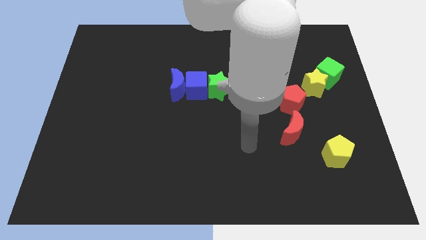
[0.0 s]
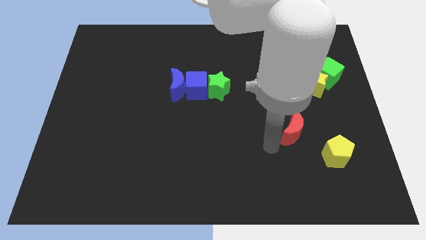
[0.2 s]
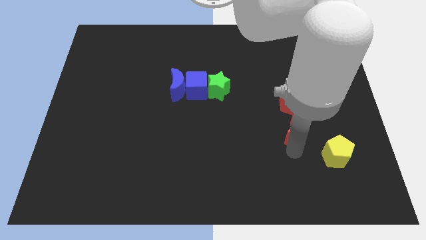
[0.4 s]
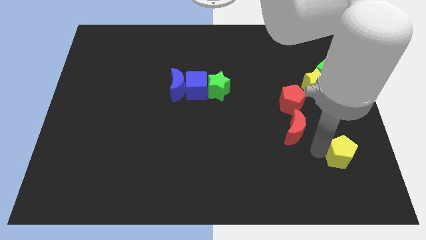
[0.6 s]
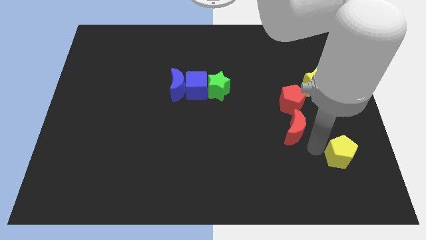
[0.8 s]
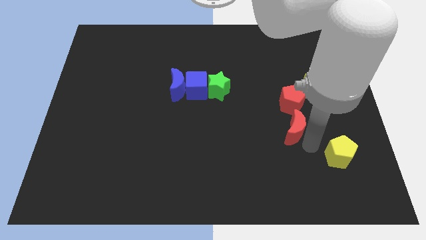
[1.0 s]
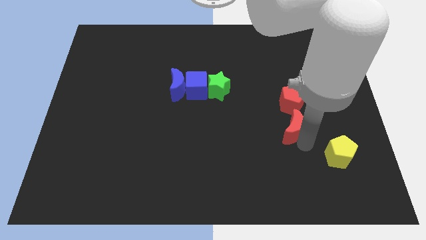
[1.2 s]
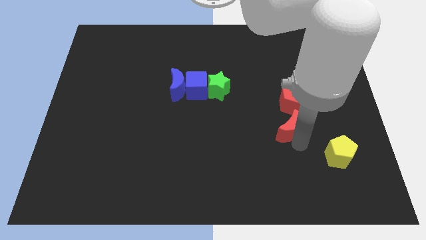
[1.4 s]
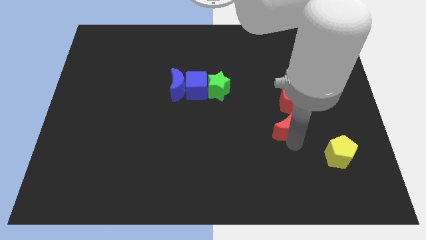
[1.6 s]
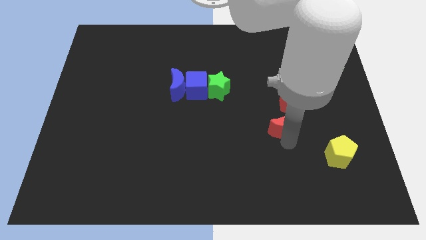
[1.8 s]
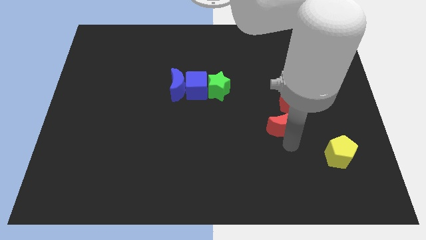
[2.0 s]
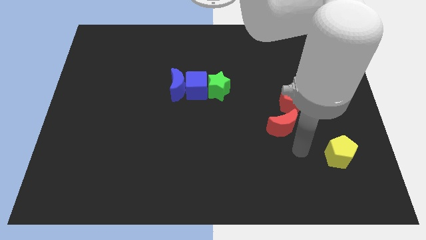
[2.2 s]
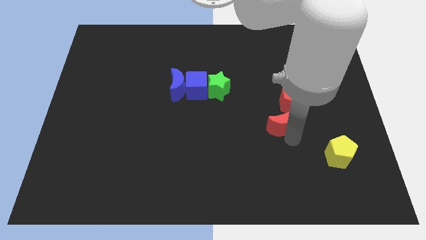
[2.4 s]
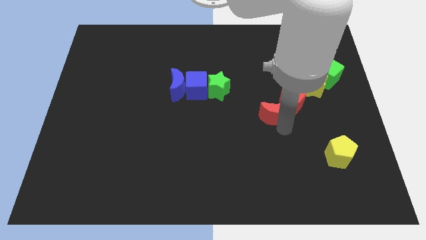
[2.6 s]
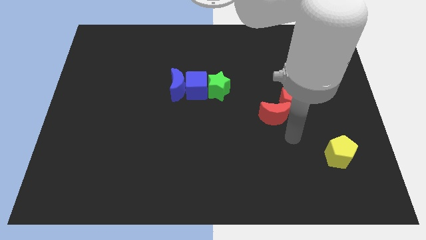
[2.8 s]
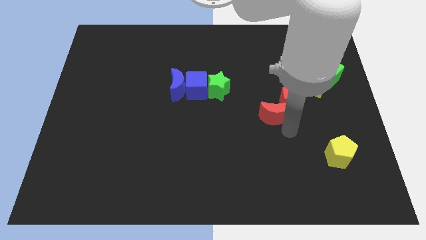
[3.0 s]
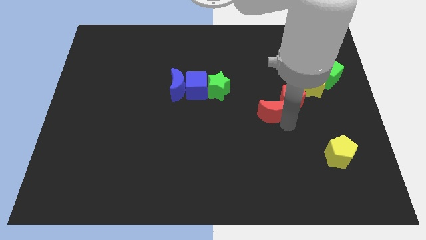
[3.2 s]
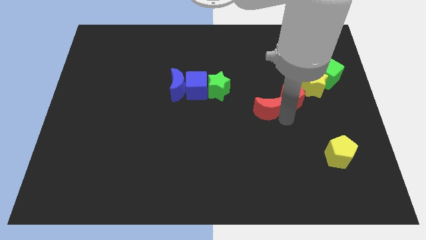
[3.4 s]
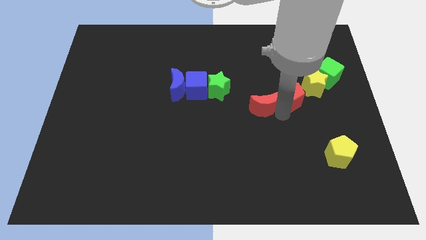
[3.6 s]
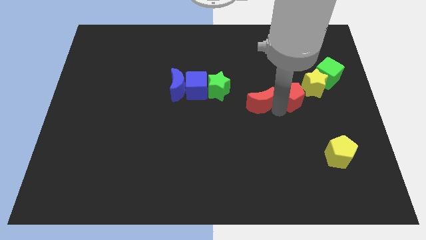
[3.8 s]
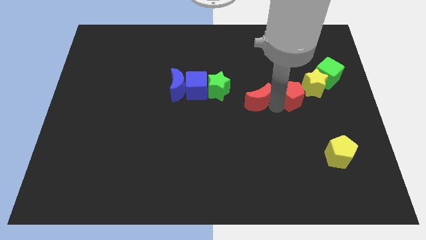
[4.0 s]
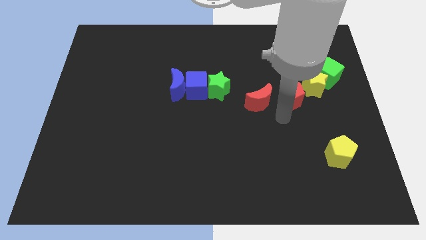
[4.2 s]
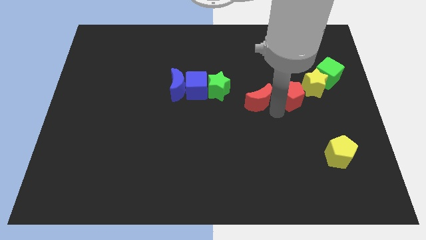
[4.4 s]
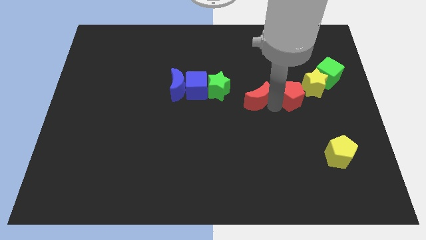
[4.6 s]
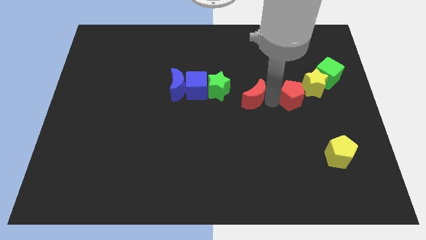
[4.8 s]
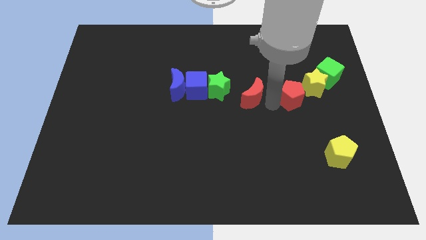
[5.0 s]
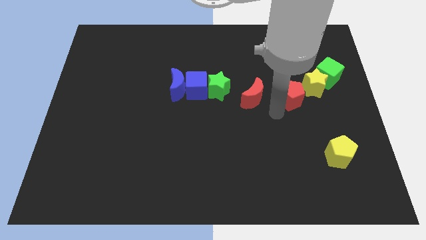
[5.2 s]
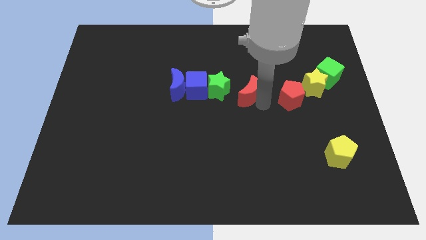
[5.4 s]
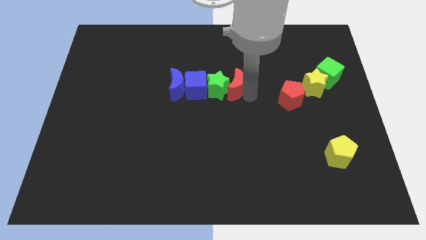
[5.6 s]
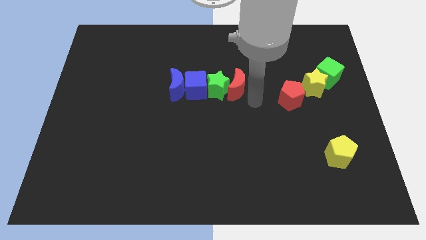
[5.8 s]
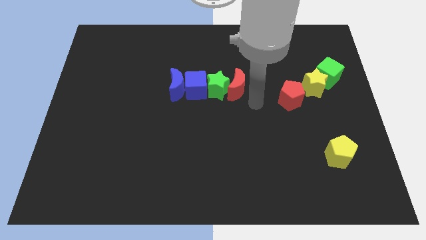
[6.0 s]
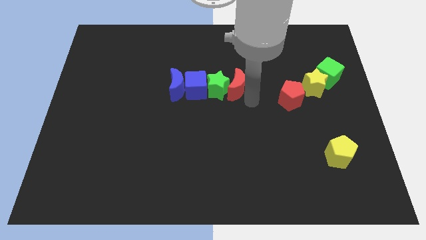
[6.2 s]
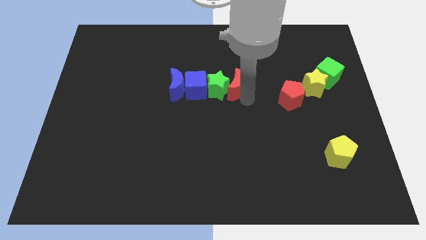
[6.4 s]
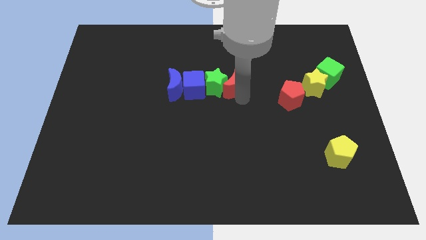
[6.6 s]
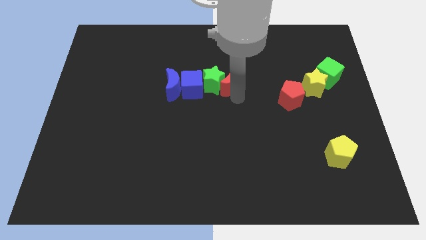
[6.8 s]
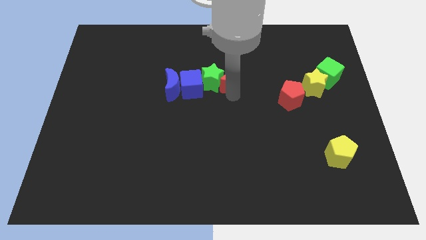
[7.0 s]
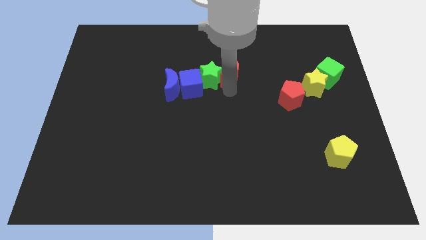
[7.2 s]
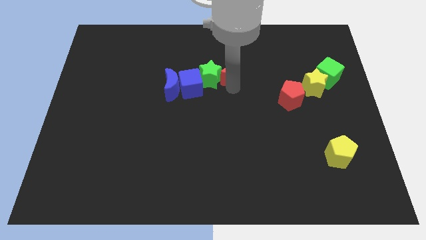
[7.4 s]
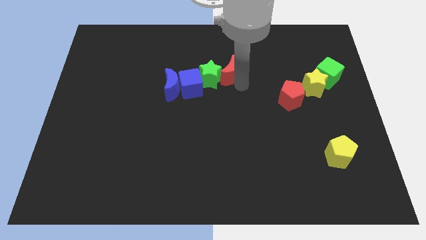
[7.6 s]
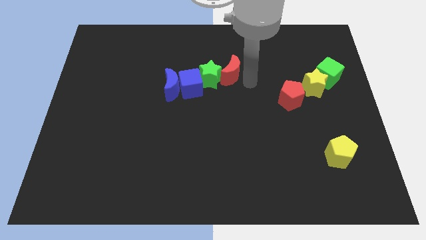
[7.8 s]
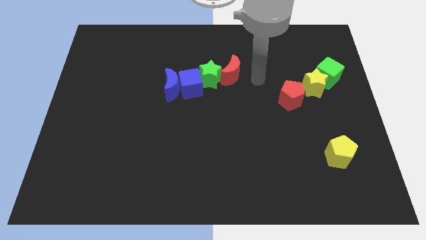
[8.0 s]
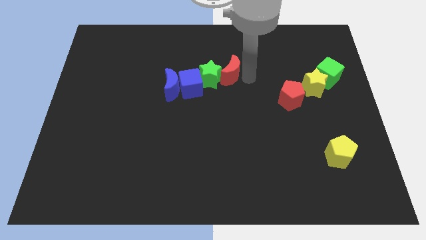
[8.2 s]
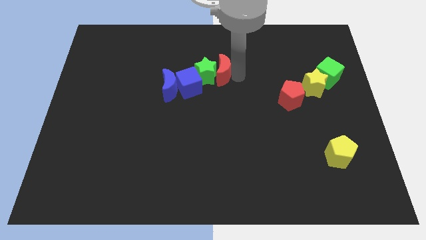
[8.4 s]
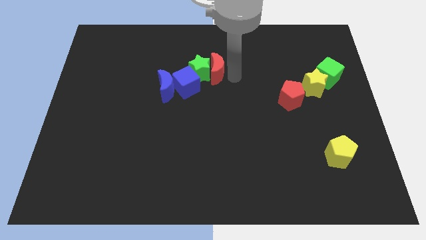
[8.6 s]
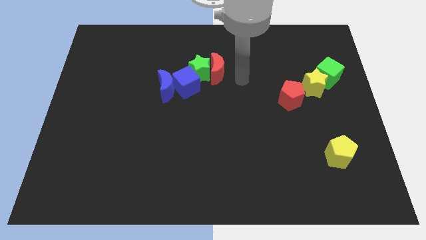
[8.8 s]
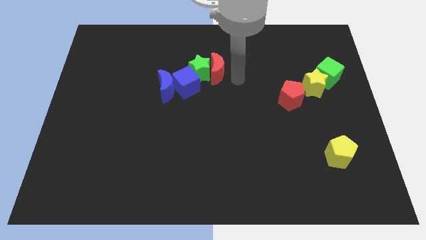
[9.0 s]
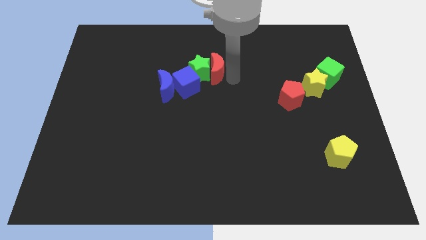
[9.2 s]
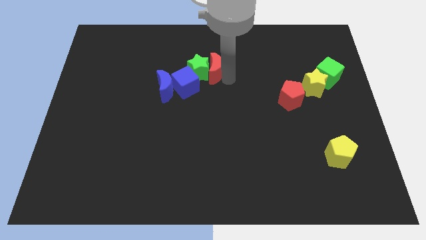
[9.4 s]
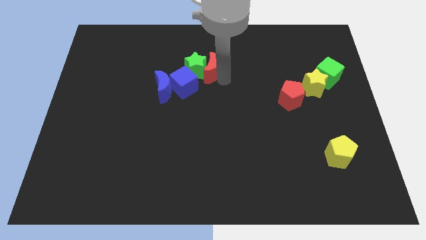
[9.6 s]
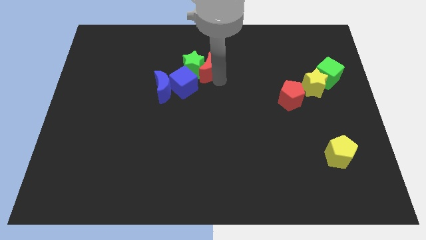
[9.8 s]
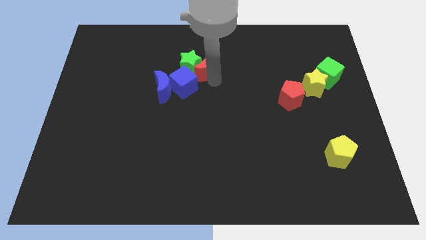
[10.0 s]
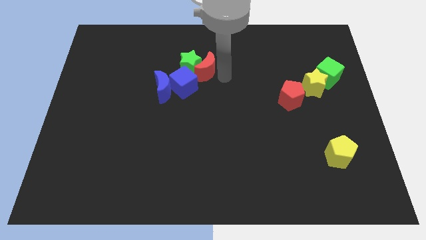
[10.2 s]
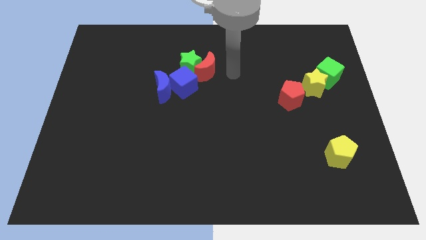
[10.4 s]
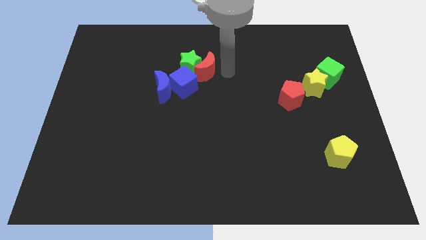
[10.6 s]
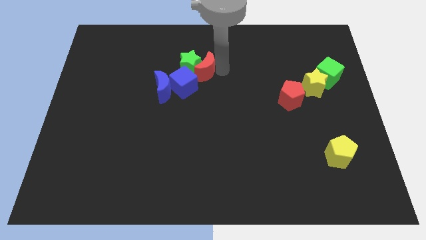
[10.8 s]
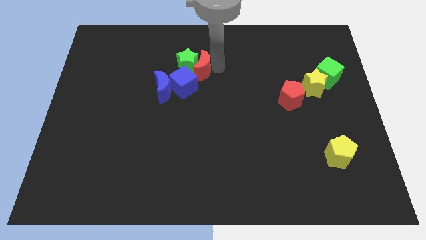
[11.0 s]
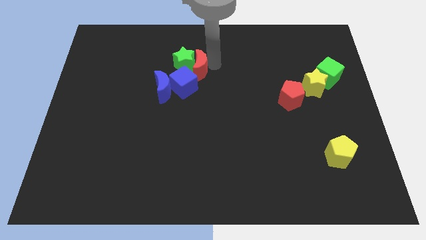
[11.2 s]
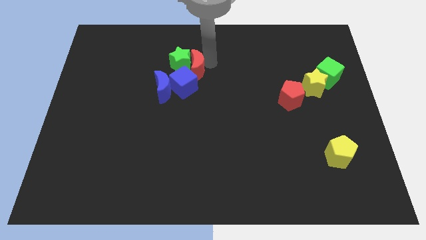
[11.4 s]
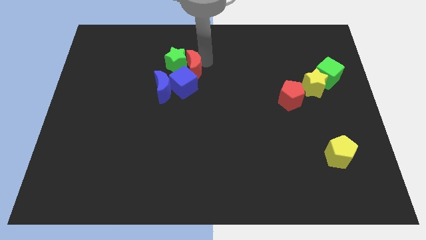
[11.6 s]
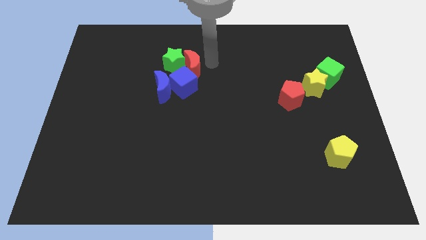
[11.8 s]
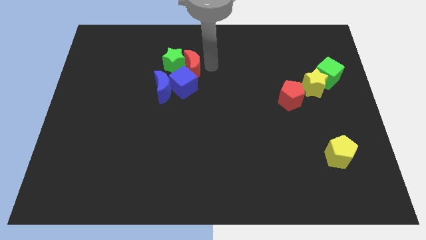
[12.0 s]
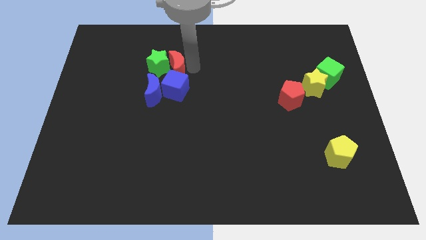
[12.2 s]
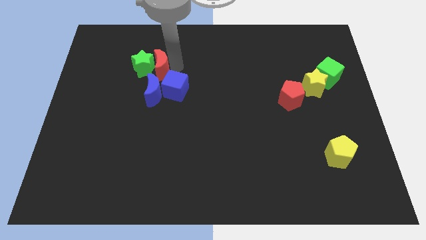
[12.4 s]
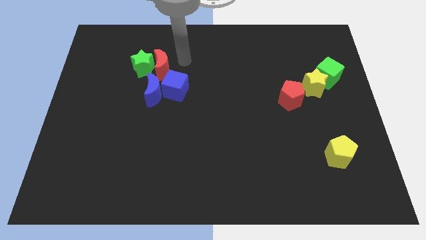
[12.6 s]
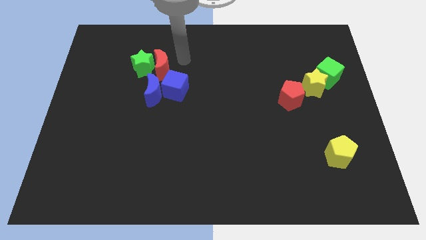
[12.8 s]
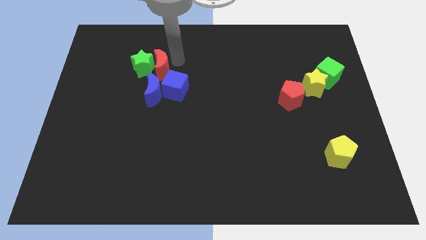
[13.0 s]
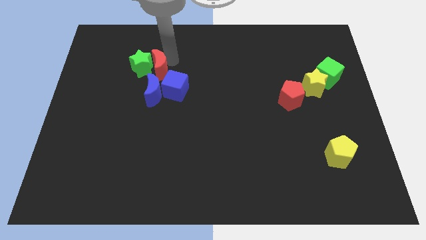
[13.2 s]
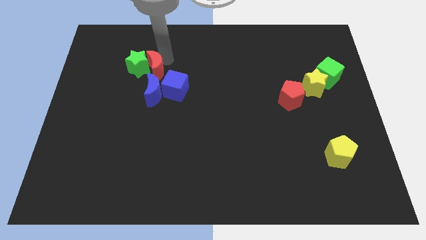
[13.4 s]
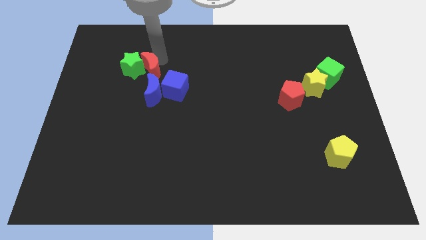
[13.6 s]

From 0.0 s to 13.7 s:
move the red moon to the top left side of the blue moon
